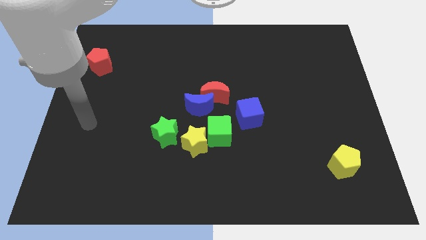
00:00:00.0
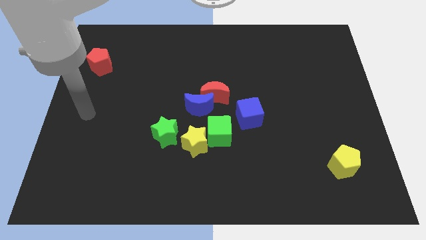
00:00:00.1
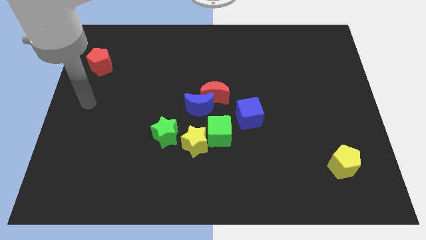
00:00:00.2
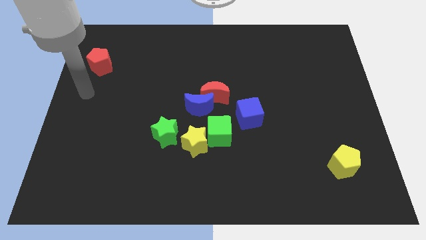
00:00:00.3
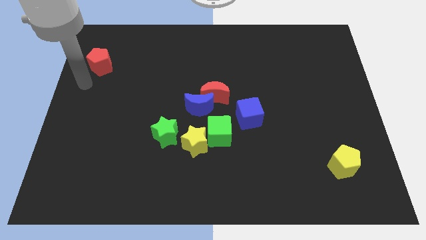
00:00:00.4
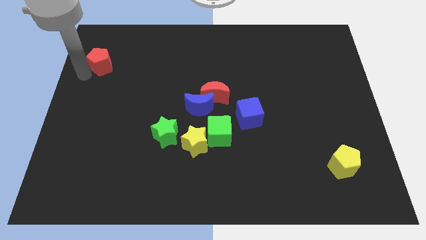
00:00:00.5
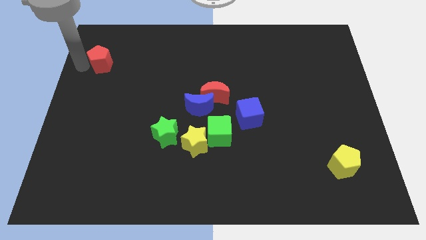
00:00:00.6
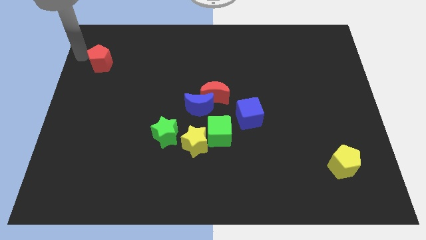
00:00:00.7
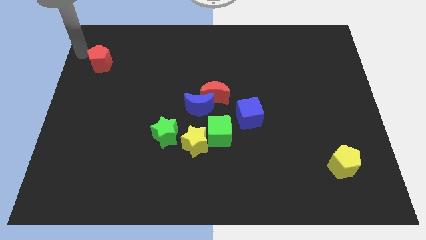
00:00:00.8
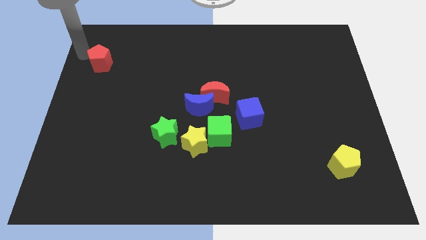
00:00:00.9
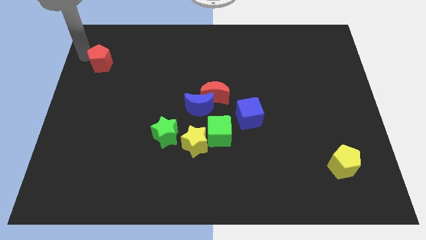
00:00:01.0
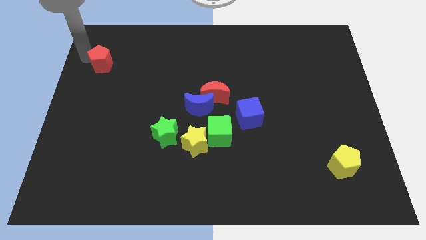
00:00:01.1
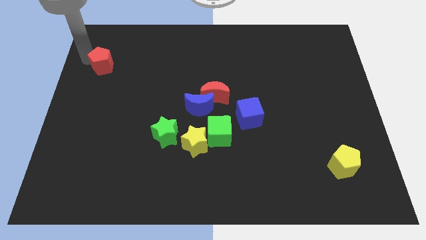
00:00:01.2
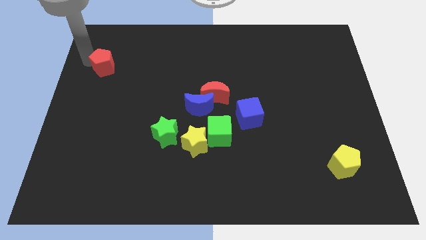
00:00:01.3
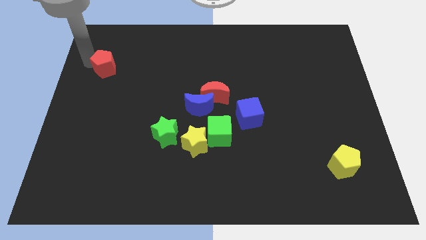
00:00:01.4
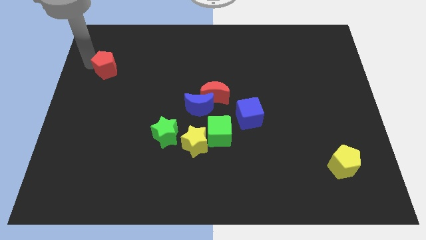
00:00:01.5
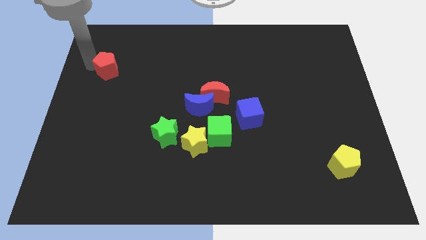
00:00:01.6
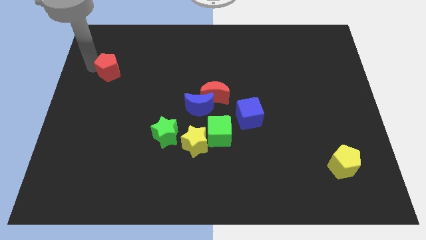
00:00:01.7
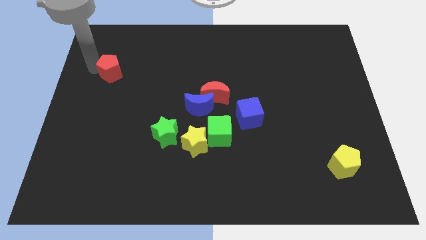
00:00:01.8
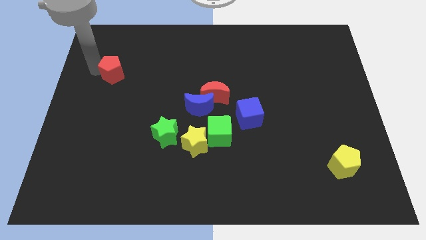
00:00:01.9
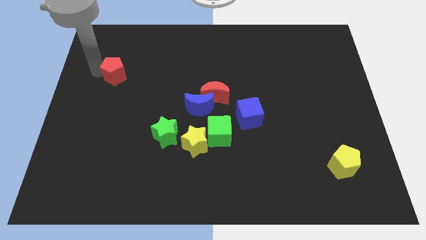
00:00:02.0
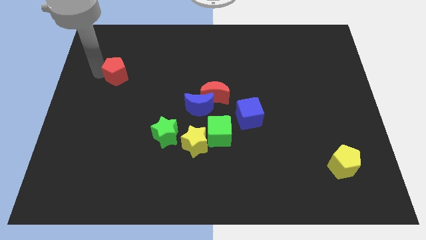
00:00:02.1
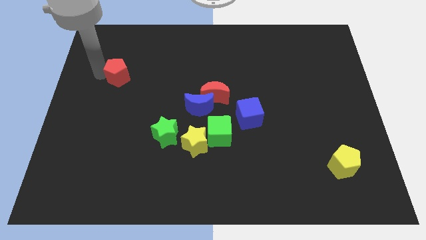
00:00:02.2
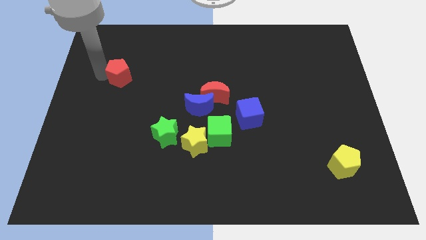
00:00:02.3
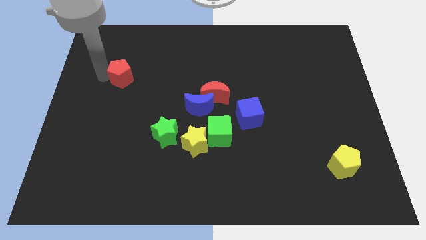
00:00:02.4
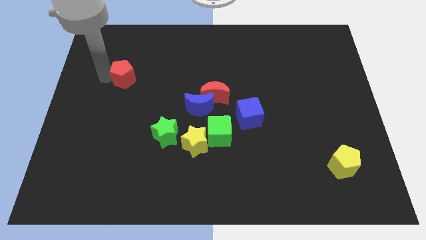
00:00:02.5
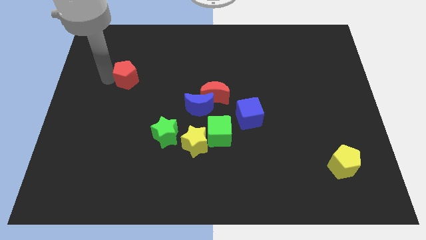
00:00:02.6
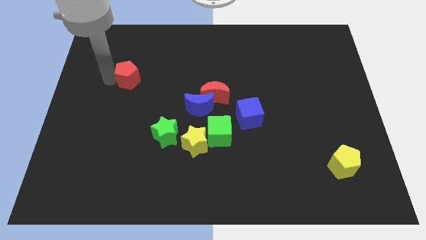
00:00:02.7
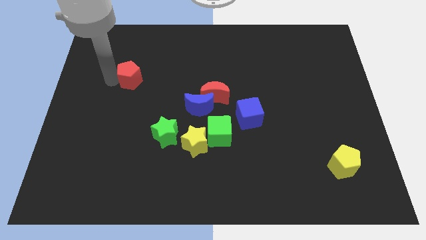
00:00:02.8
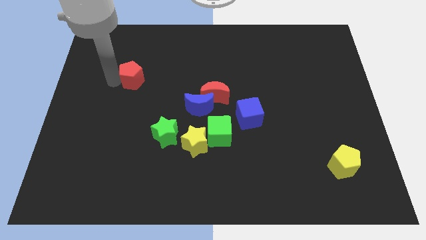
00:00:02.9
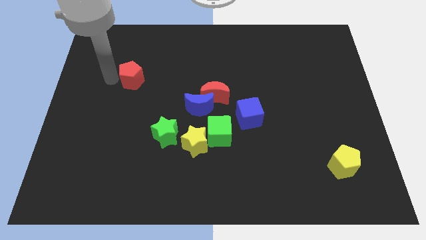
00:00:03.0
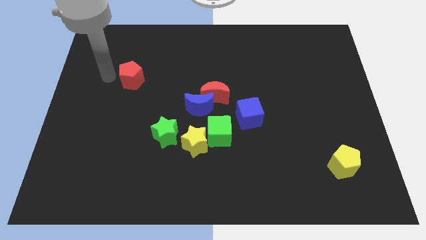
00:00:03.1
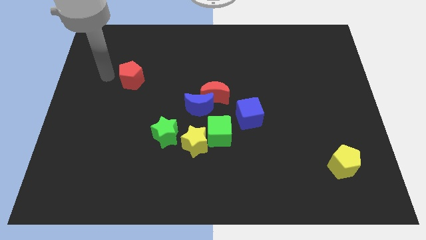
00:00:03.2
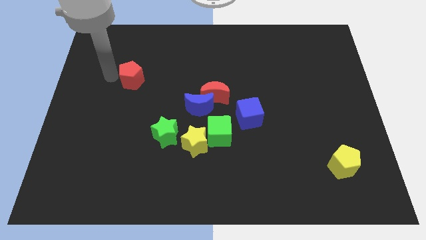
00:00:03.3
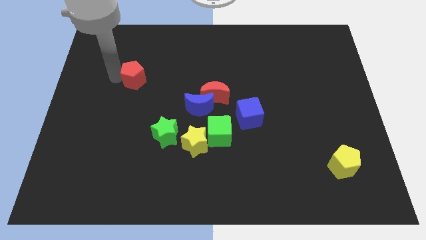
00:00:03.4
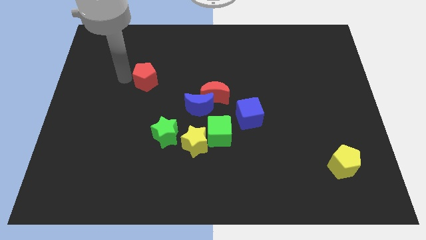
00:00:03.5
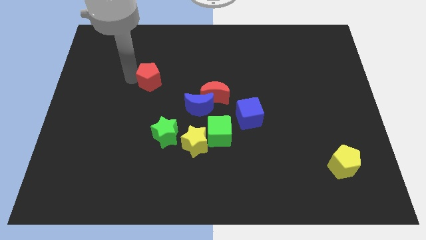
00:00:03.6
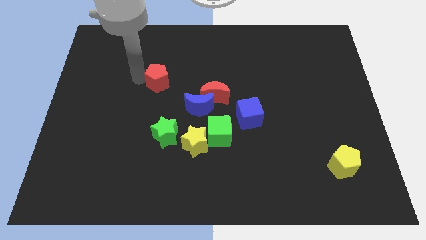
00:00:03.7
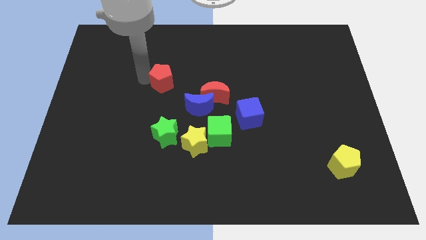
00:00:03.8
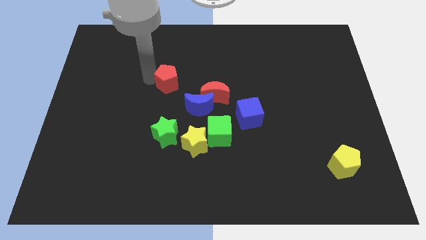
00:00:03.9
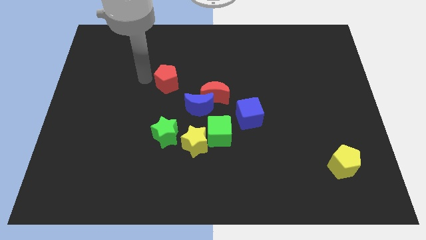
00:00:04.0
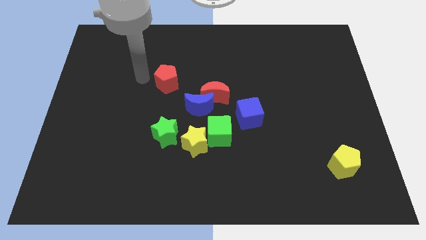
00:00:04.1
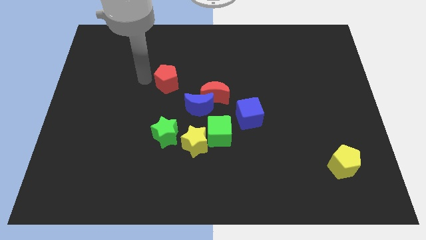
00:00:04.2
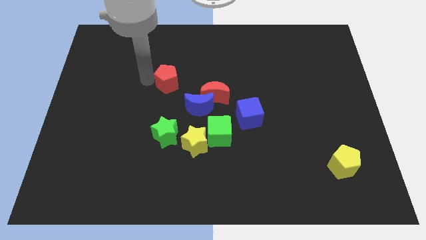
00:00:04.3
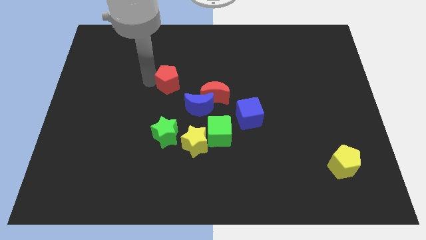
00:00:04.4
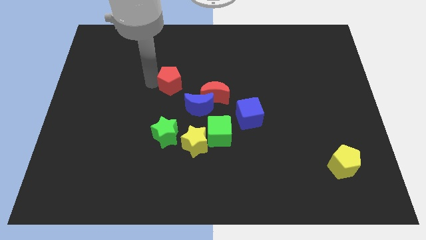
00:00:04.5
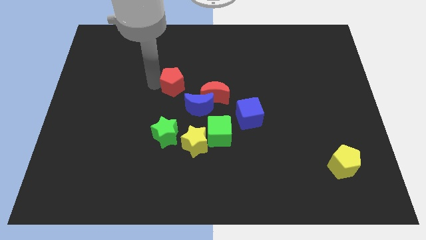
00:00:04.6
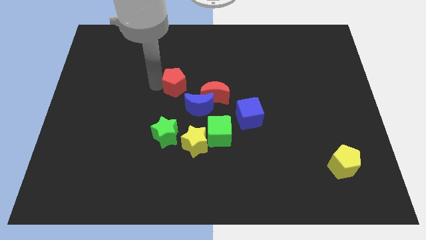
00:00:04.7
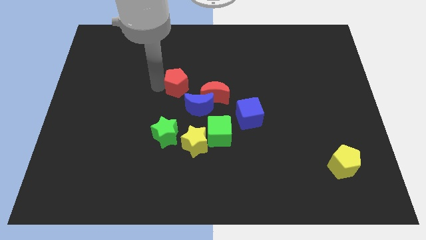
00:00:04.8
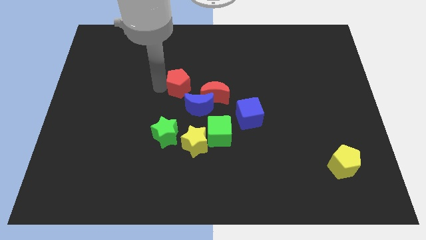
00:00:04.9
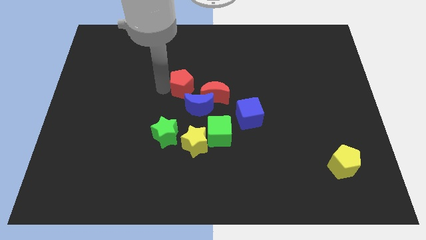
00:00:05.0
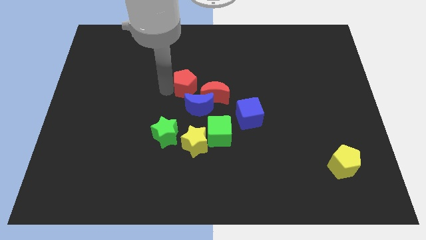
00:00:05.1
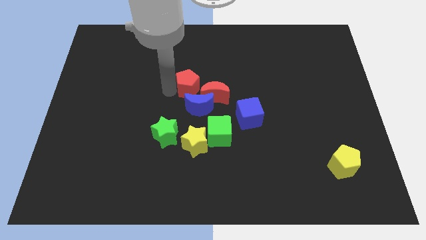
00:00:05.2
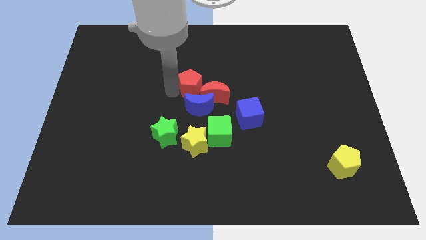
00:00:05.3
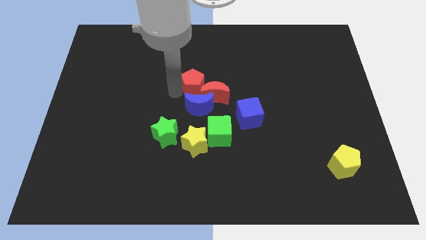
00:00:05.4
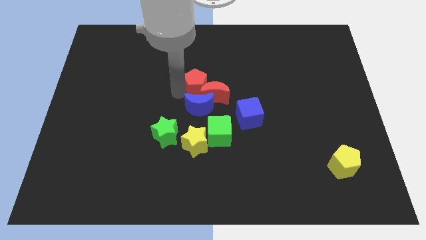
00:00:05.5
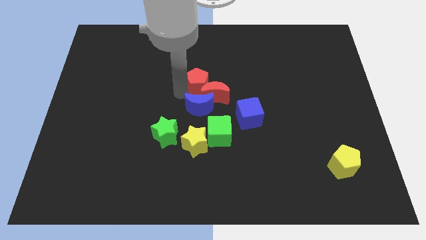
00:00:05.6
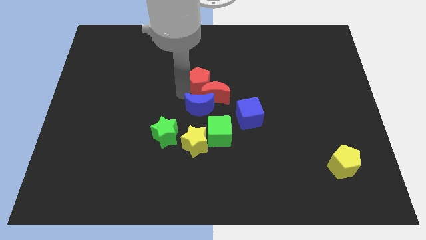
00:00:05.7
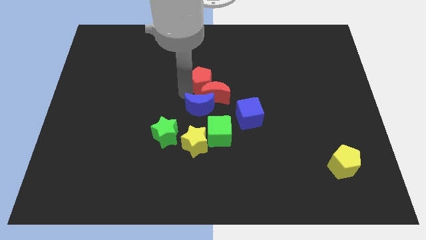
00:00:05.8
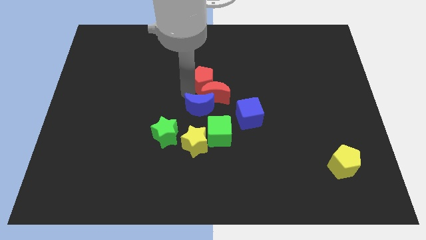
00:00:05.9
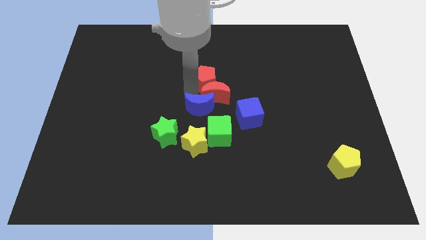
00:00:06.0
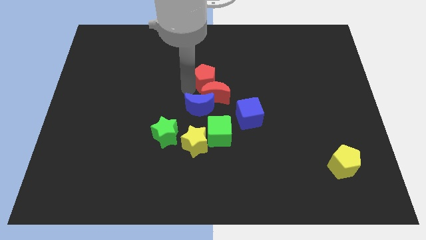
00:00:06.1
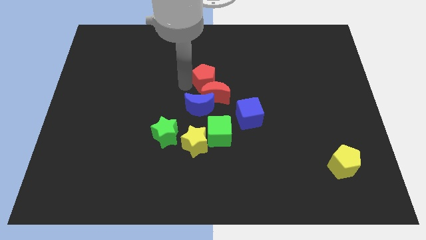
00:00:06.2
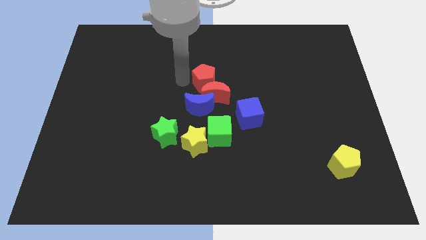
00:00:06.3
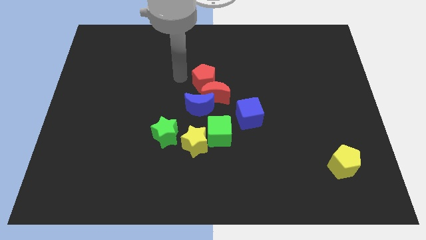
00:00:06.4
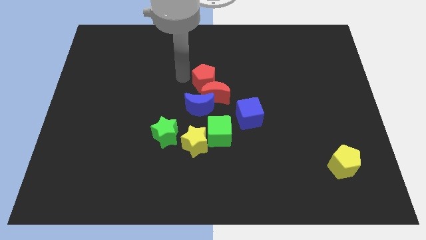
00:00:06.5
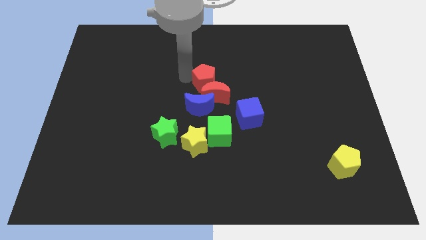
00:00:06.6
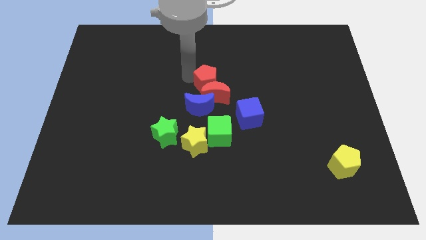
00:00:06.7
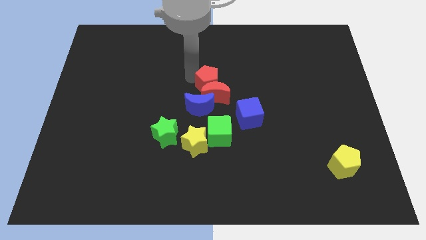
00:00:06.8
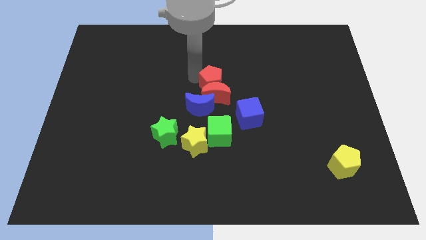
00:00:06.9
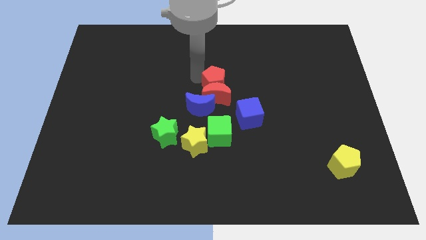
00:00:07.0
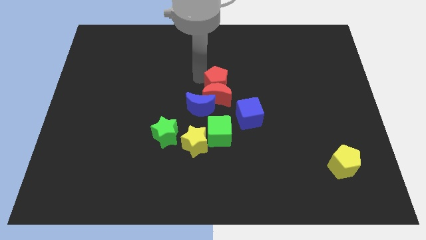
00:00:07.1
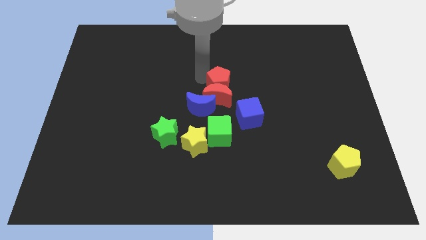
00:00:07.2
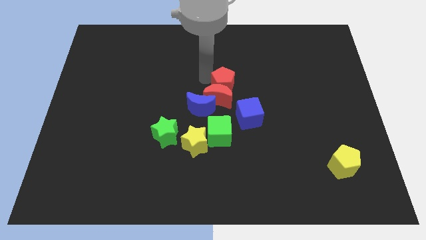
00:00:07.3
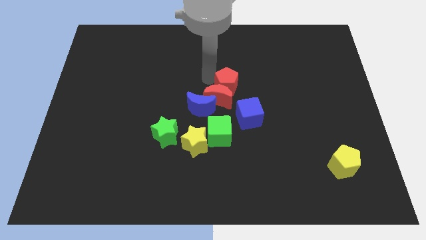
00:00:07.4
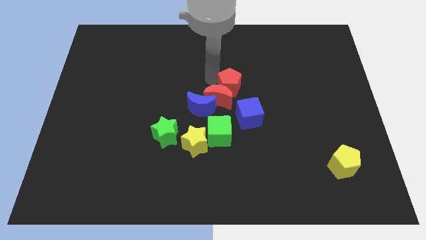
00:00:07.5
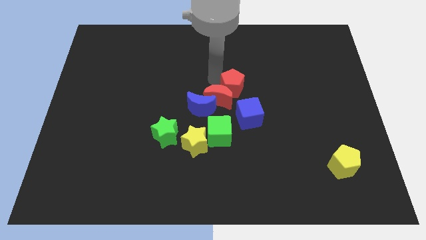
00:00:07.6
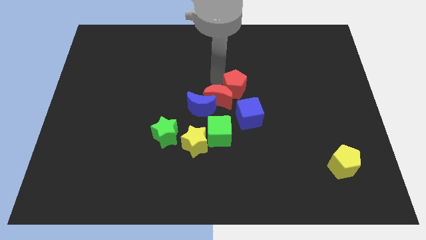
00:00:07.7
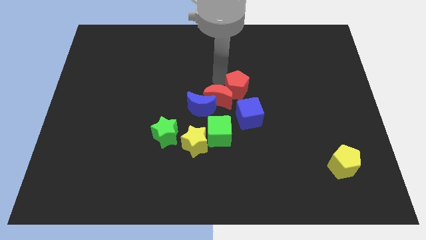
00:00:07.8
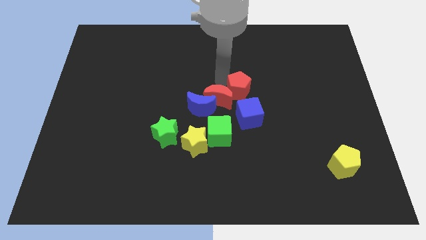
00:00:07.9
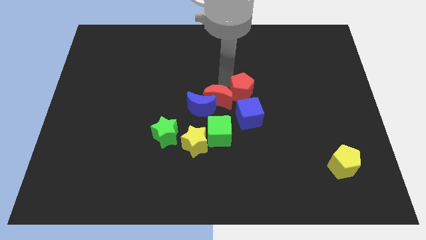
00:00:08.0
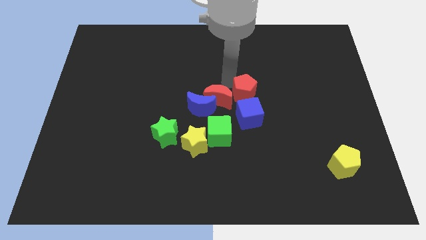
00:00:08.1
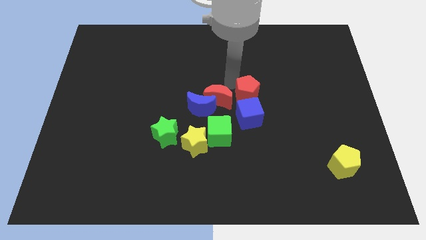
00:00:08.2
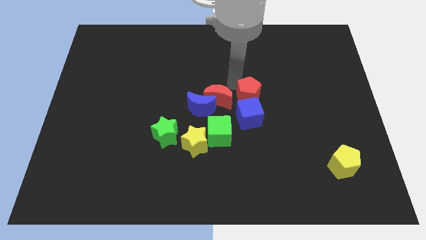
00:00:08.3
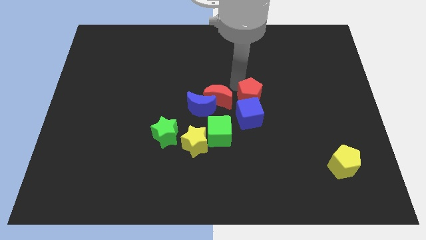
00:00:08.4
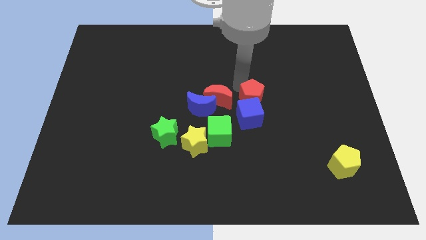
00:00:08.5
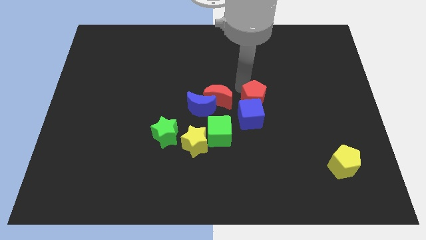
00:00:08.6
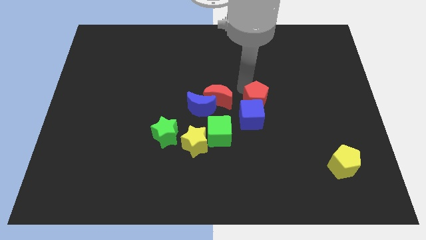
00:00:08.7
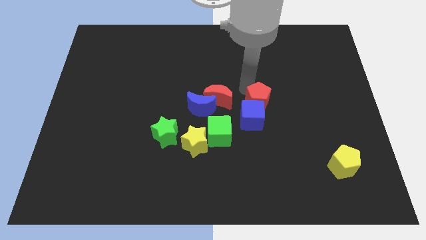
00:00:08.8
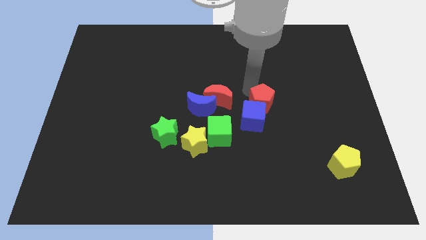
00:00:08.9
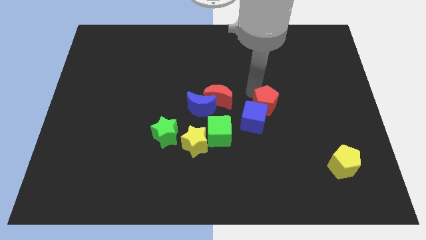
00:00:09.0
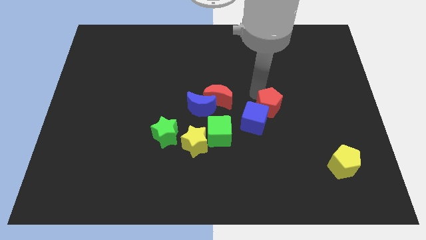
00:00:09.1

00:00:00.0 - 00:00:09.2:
put the red pentagon to the right of the blue cube
